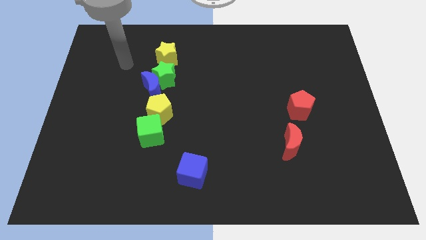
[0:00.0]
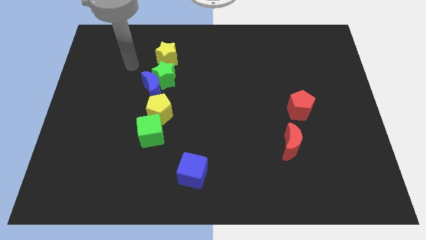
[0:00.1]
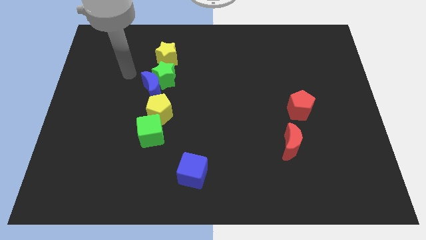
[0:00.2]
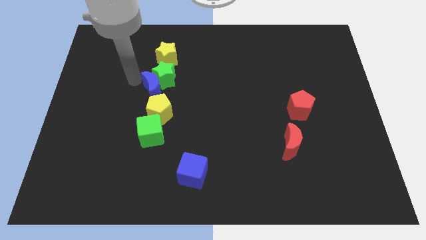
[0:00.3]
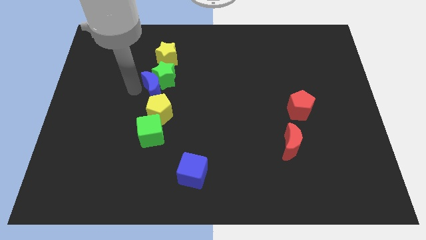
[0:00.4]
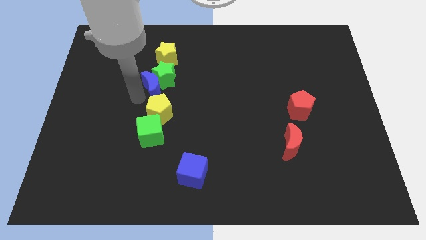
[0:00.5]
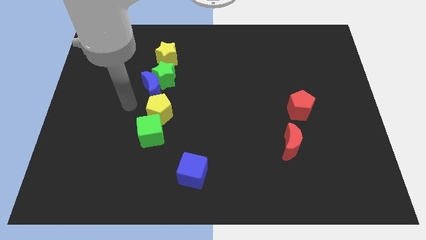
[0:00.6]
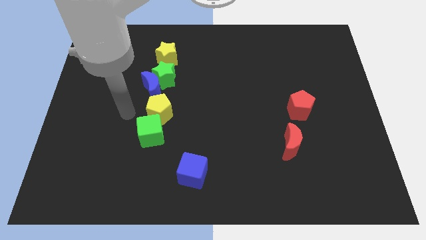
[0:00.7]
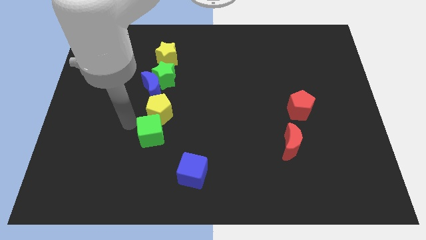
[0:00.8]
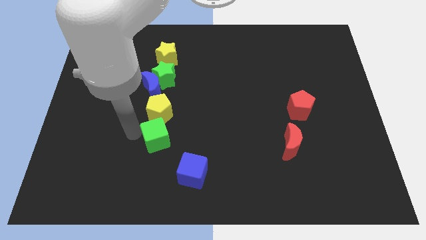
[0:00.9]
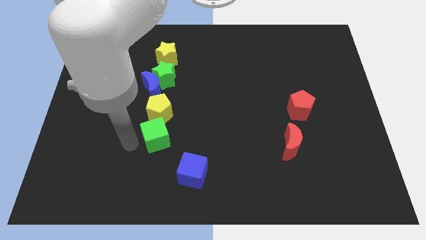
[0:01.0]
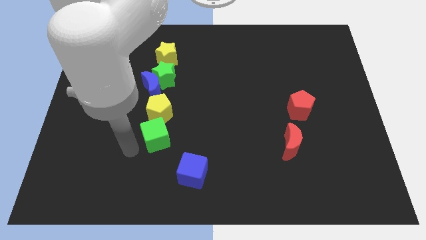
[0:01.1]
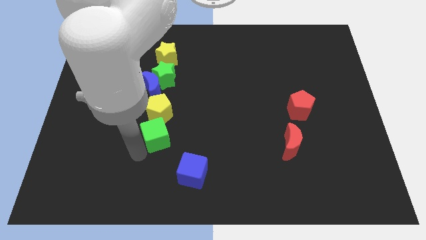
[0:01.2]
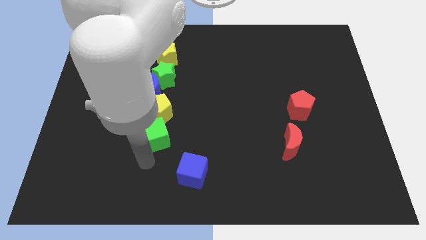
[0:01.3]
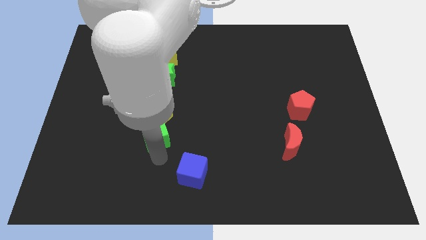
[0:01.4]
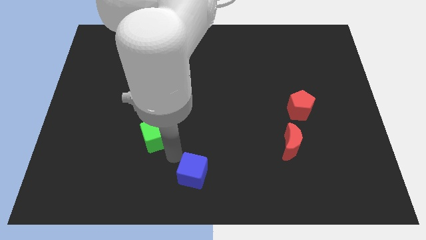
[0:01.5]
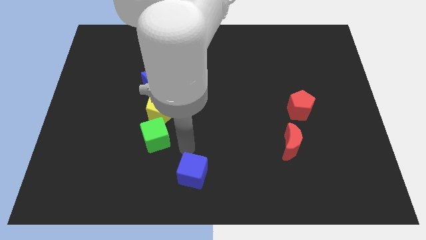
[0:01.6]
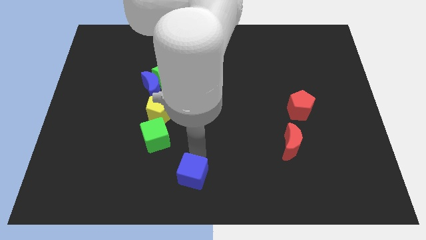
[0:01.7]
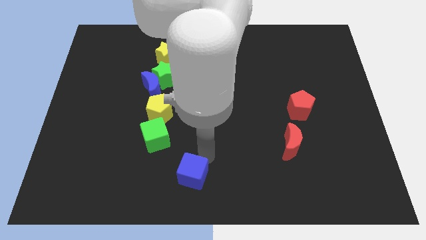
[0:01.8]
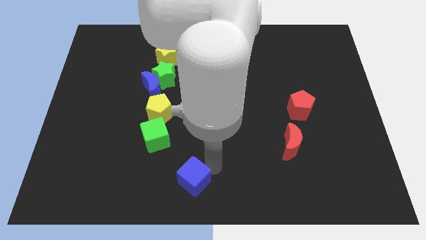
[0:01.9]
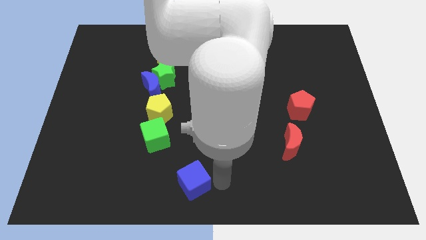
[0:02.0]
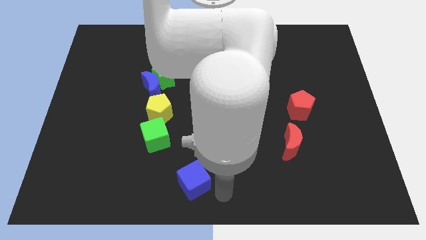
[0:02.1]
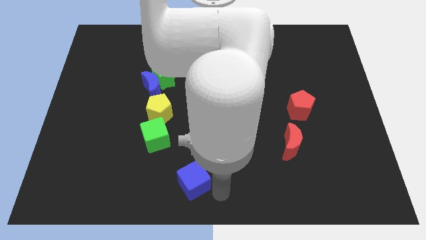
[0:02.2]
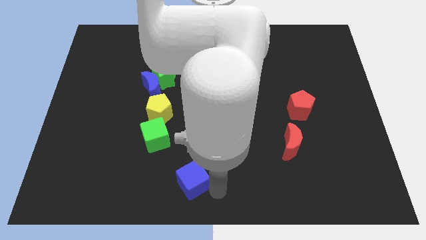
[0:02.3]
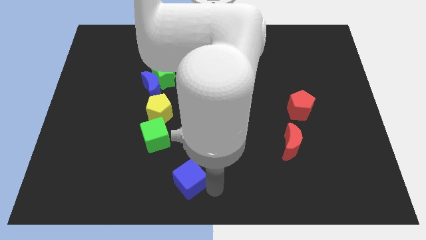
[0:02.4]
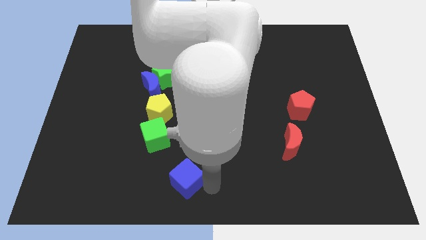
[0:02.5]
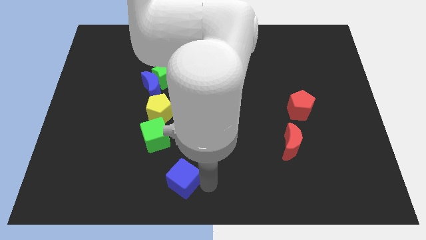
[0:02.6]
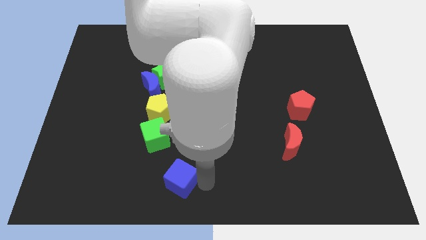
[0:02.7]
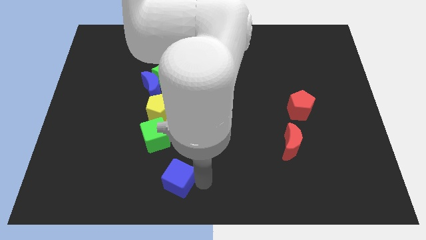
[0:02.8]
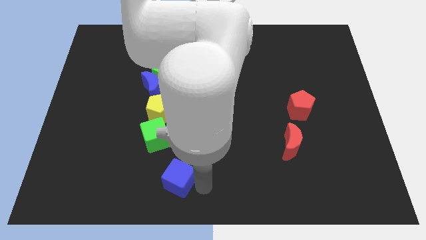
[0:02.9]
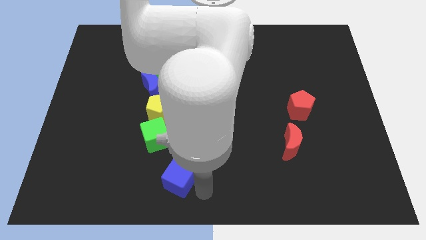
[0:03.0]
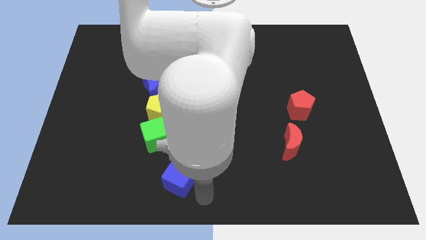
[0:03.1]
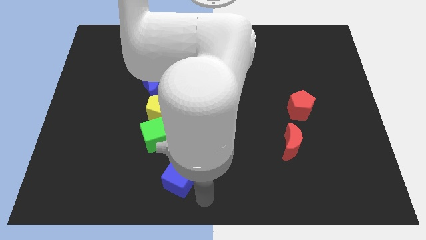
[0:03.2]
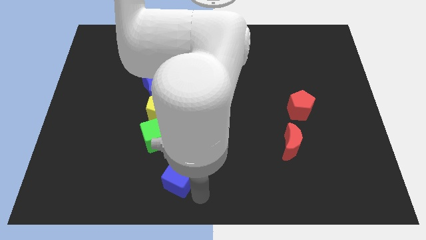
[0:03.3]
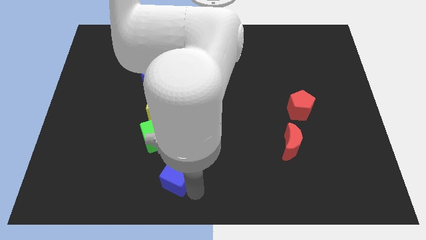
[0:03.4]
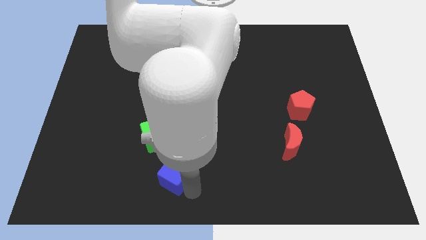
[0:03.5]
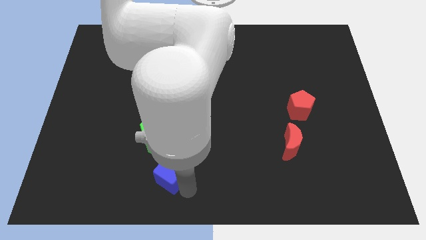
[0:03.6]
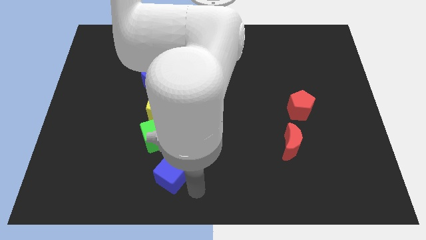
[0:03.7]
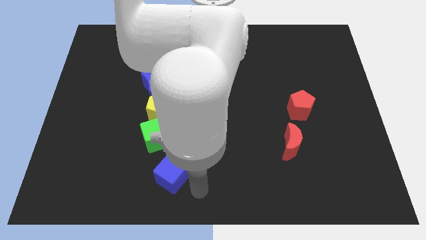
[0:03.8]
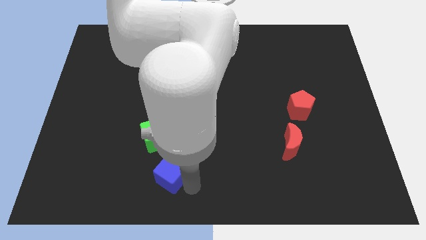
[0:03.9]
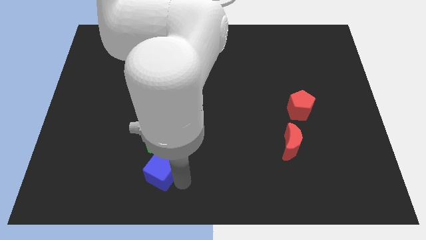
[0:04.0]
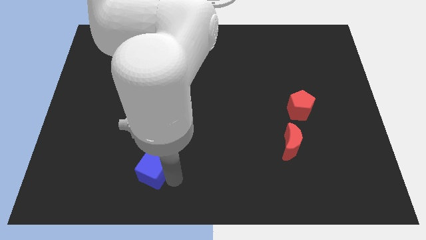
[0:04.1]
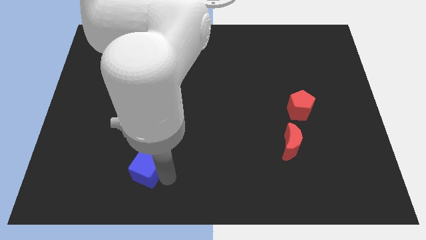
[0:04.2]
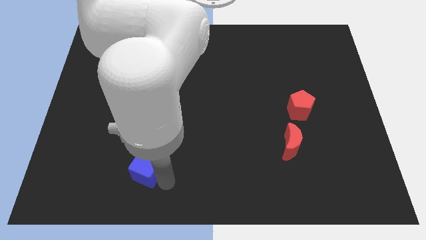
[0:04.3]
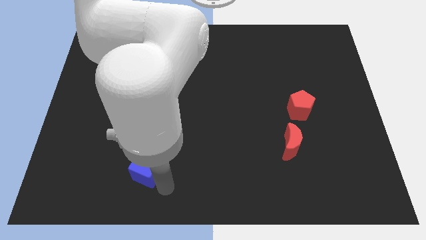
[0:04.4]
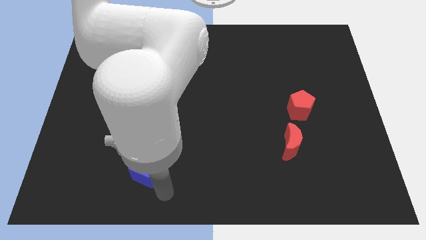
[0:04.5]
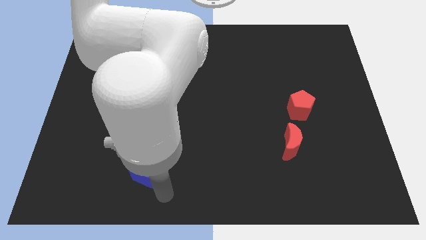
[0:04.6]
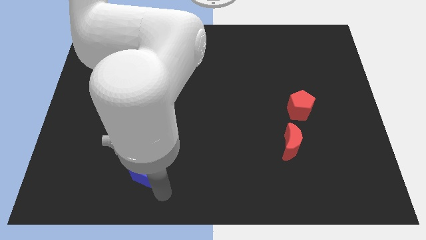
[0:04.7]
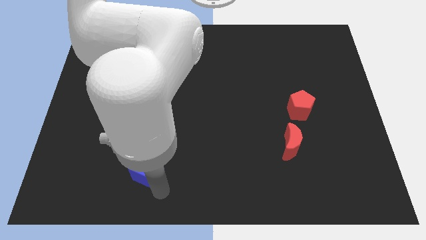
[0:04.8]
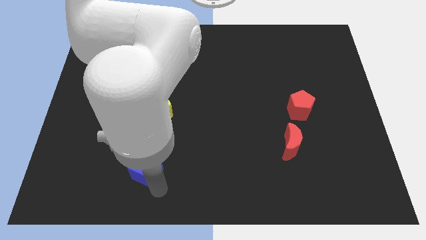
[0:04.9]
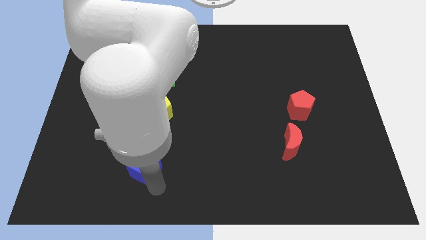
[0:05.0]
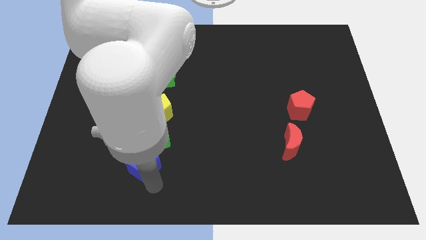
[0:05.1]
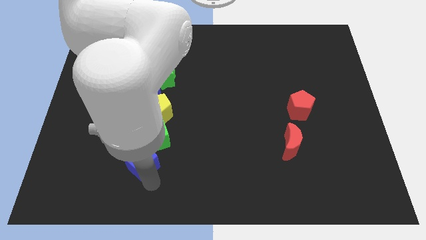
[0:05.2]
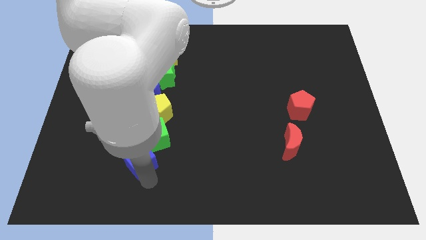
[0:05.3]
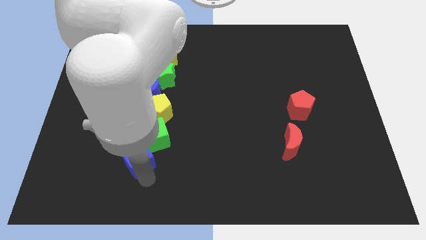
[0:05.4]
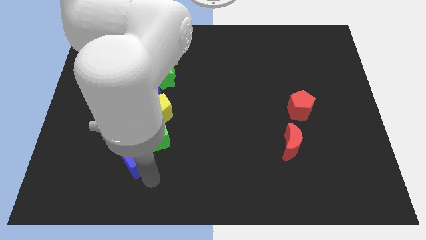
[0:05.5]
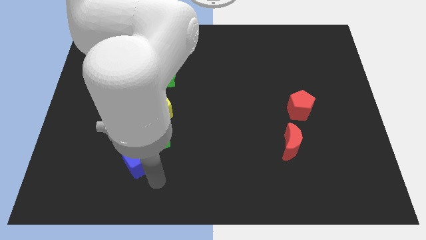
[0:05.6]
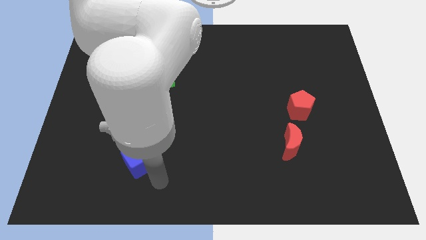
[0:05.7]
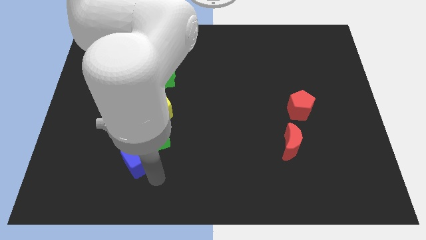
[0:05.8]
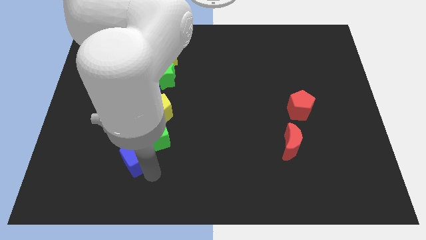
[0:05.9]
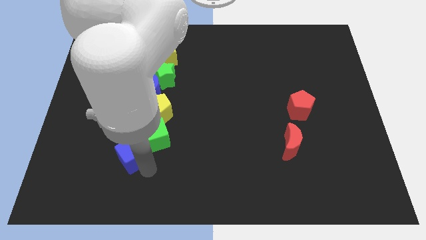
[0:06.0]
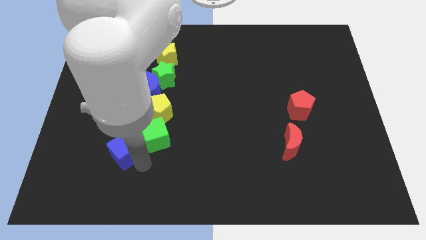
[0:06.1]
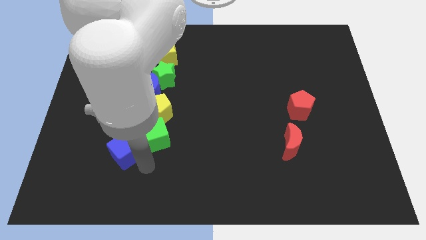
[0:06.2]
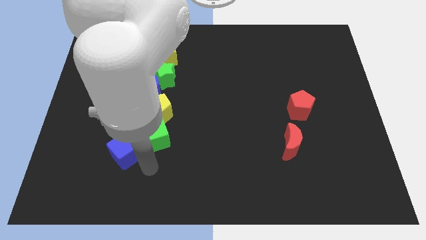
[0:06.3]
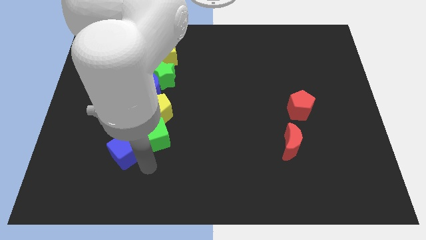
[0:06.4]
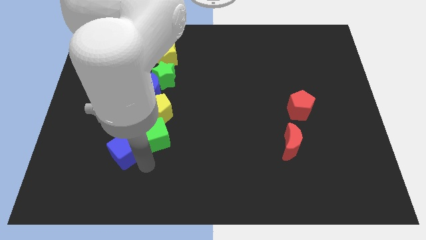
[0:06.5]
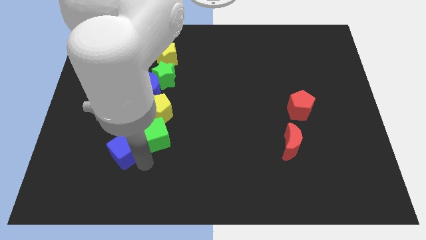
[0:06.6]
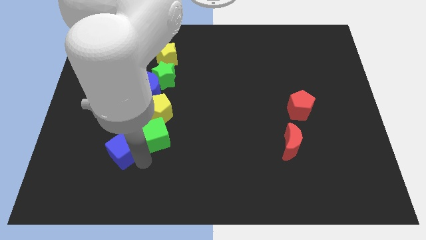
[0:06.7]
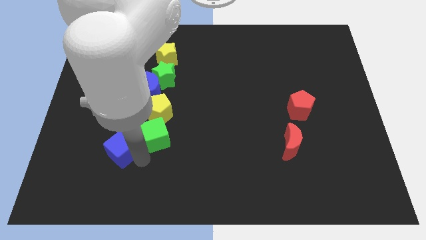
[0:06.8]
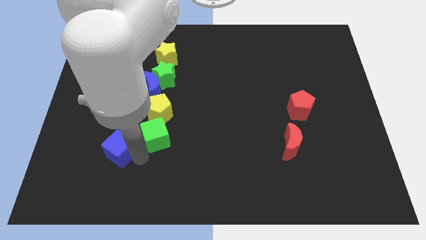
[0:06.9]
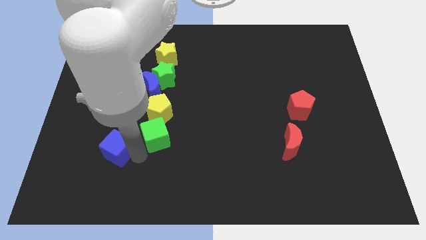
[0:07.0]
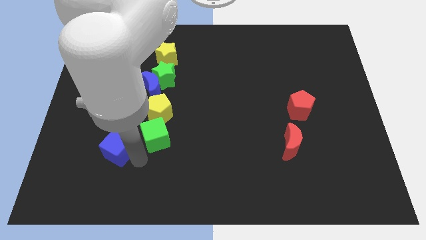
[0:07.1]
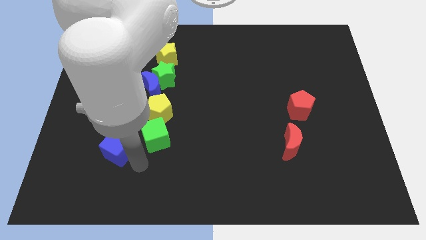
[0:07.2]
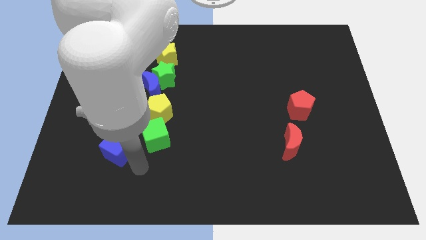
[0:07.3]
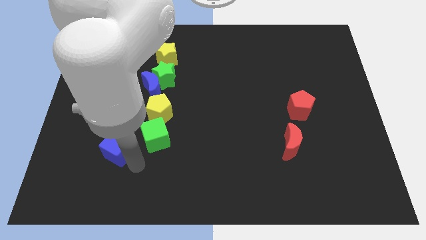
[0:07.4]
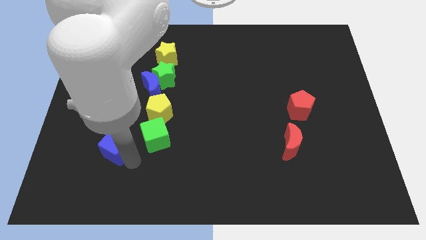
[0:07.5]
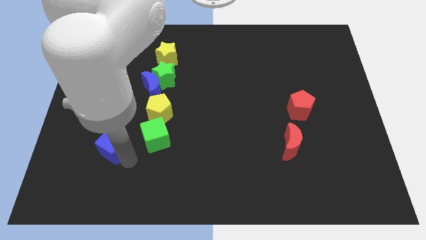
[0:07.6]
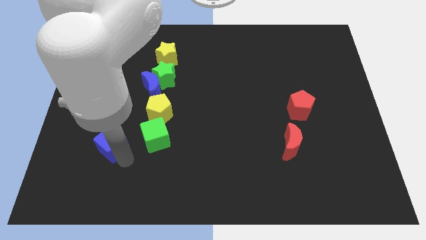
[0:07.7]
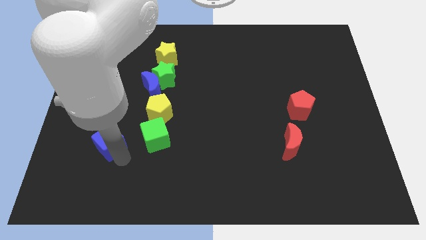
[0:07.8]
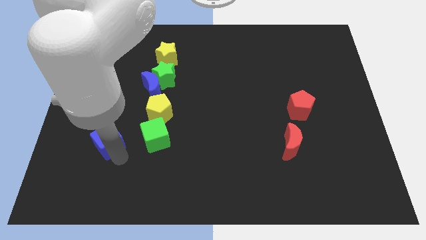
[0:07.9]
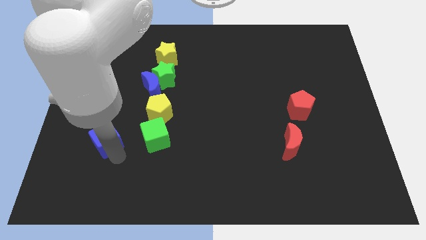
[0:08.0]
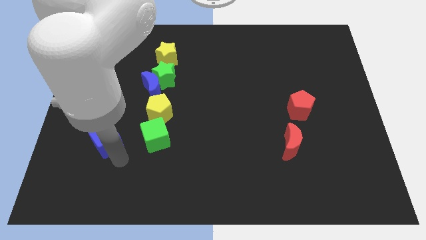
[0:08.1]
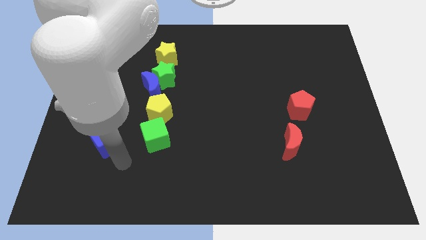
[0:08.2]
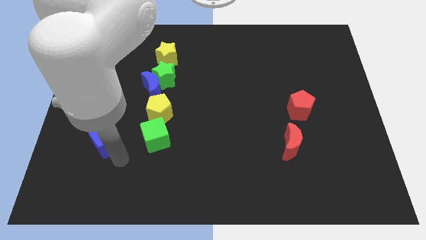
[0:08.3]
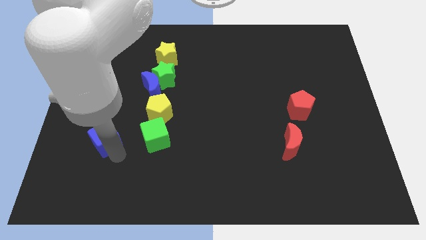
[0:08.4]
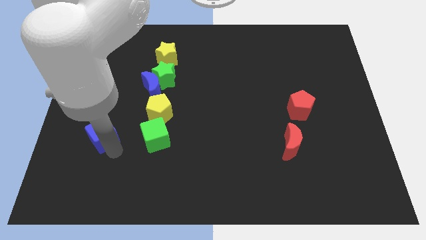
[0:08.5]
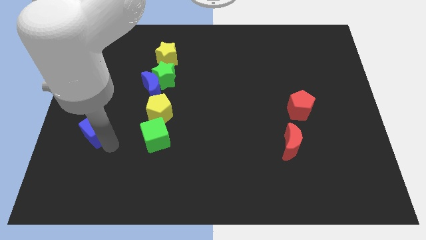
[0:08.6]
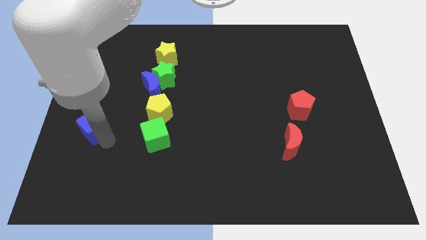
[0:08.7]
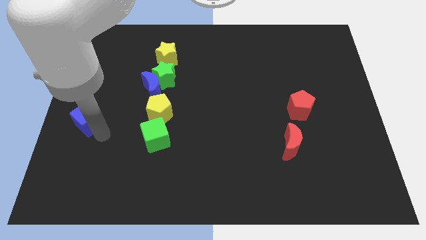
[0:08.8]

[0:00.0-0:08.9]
slide the blue cube to the center left
